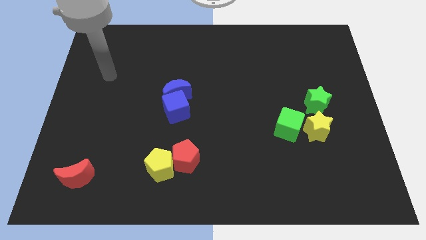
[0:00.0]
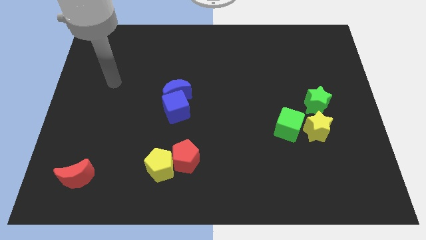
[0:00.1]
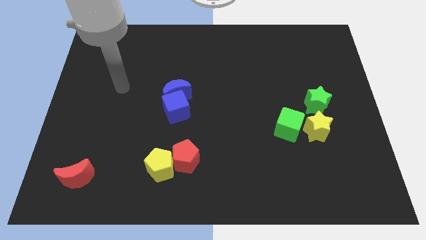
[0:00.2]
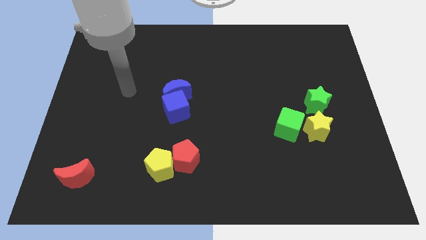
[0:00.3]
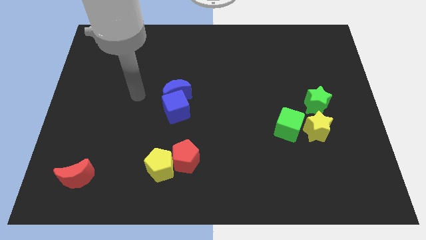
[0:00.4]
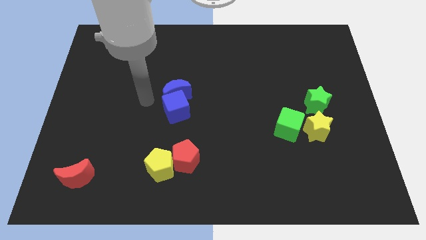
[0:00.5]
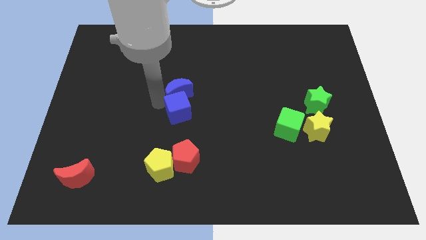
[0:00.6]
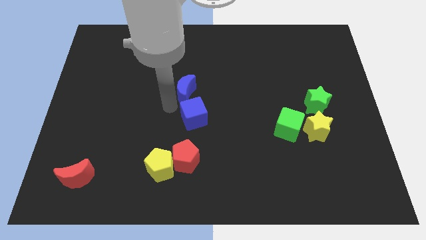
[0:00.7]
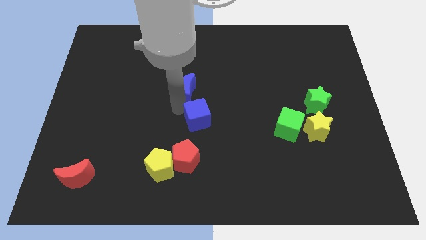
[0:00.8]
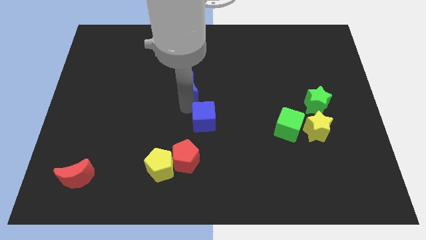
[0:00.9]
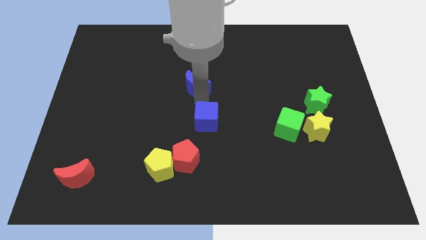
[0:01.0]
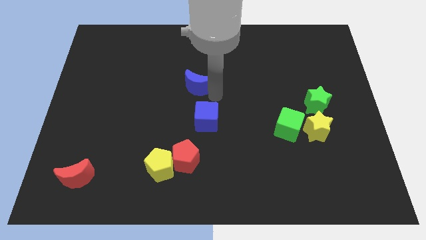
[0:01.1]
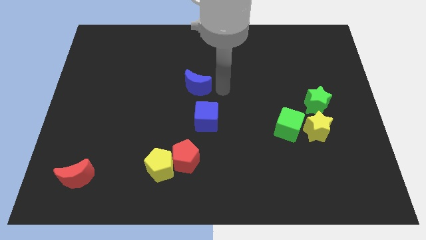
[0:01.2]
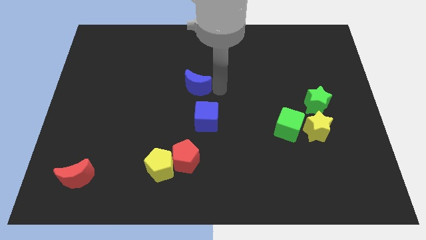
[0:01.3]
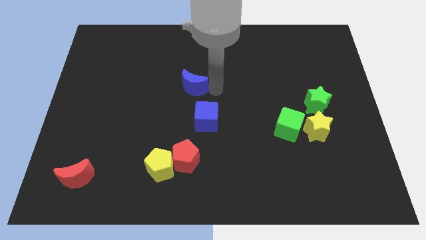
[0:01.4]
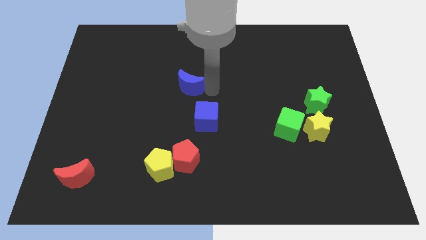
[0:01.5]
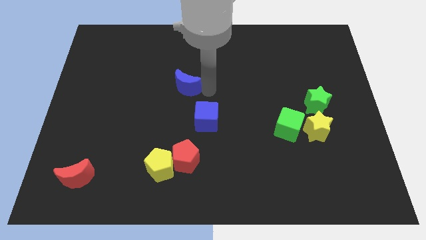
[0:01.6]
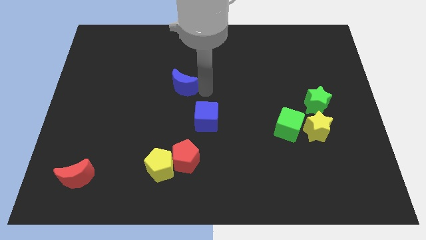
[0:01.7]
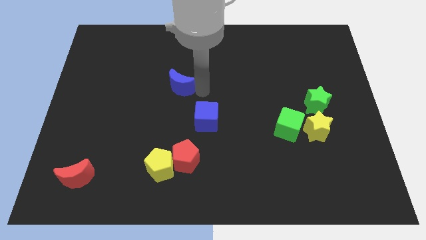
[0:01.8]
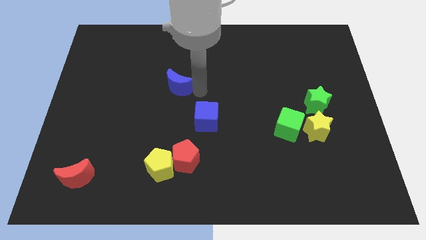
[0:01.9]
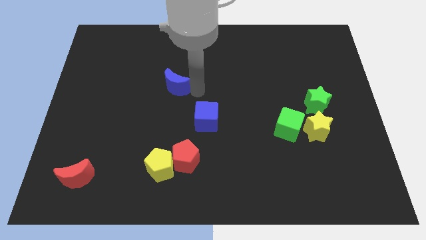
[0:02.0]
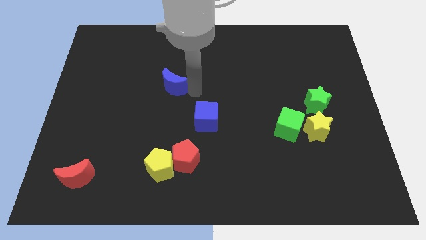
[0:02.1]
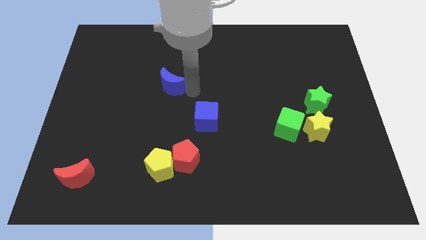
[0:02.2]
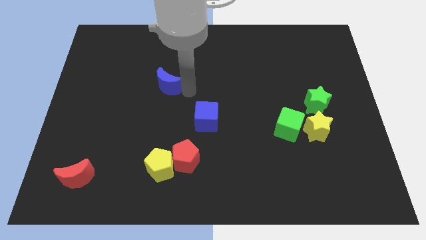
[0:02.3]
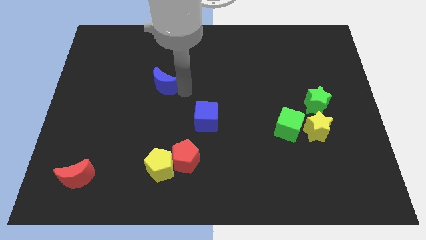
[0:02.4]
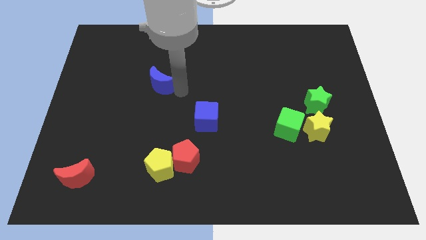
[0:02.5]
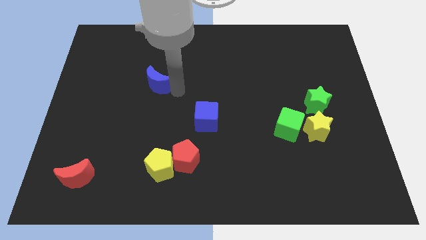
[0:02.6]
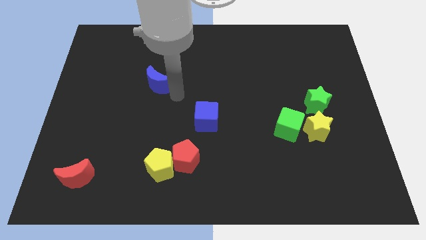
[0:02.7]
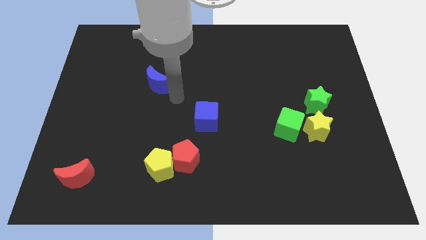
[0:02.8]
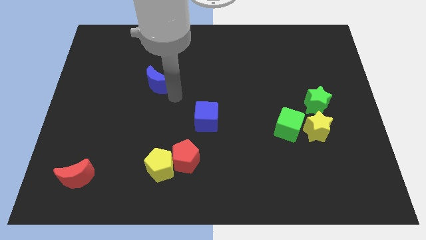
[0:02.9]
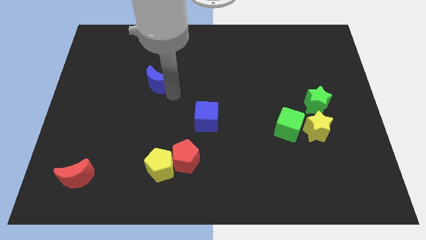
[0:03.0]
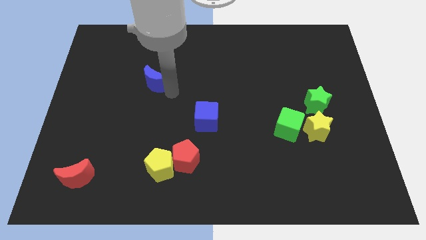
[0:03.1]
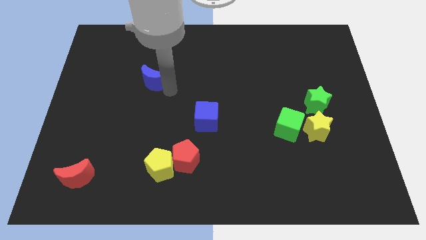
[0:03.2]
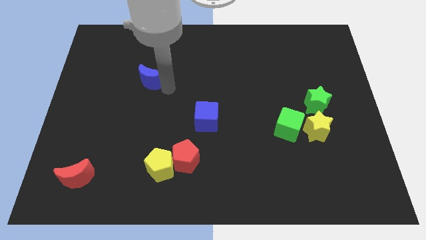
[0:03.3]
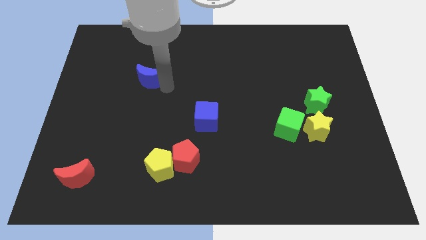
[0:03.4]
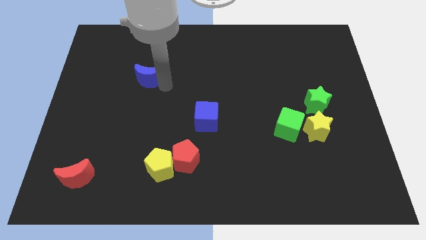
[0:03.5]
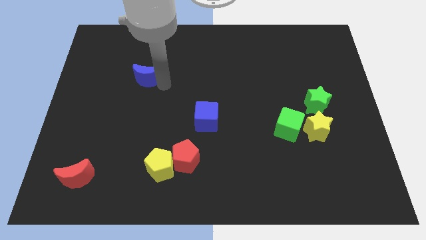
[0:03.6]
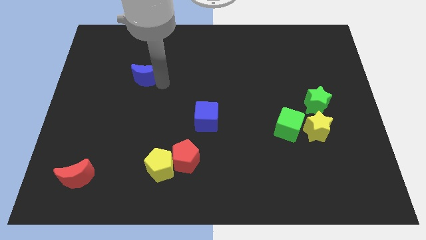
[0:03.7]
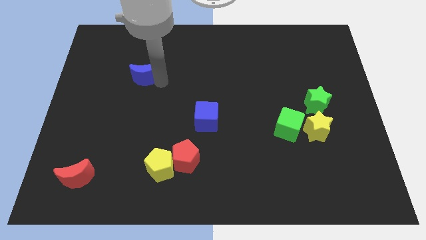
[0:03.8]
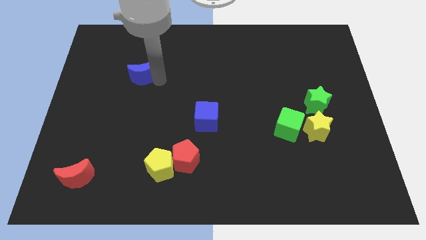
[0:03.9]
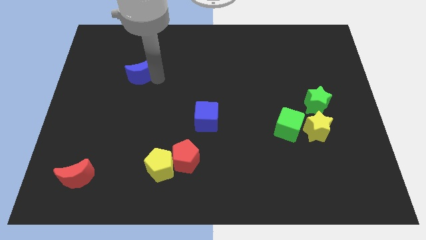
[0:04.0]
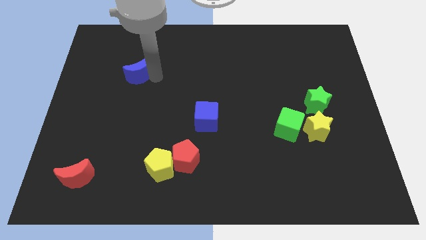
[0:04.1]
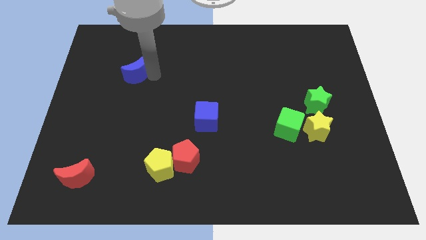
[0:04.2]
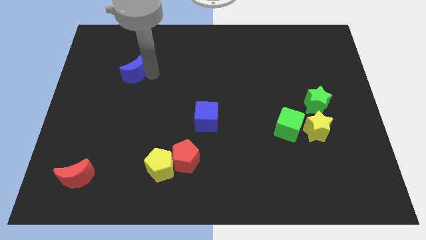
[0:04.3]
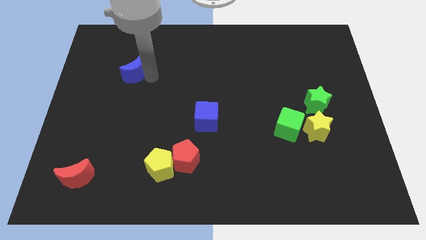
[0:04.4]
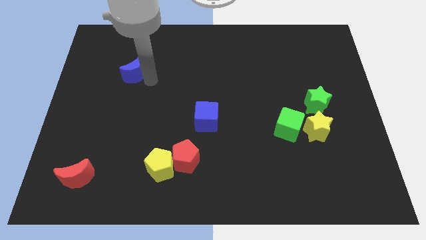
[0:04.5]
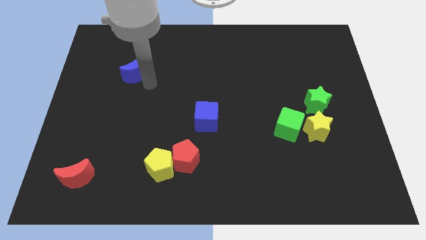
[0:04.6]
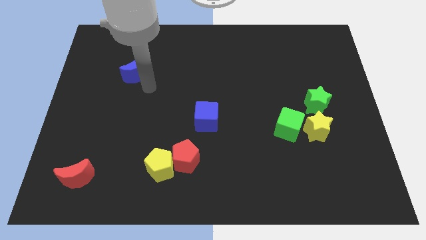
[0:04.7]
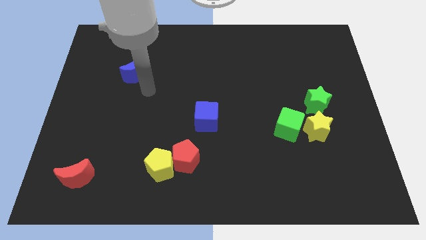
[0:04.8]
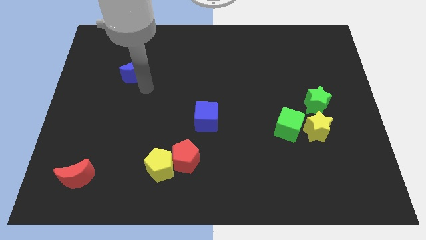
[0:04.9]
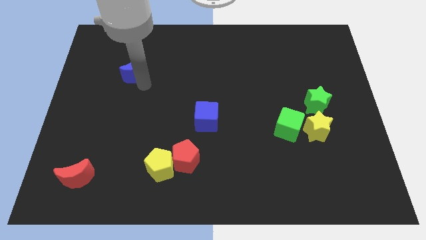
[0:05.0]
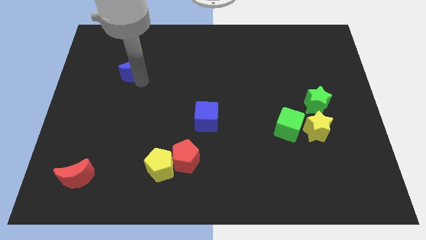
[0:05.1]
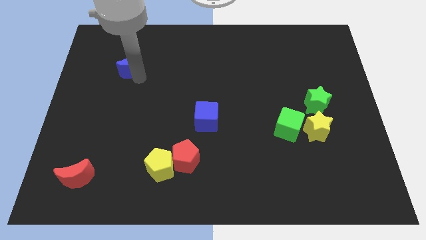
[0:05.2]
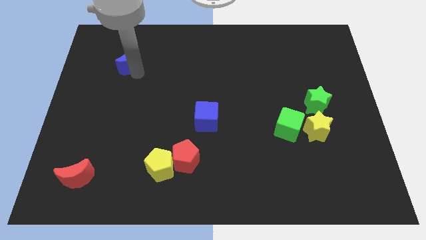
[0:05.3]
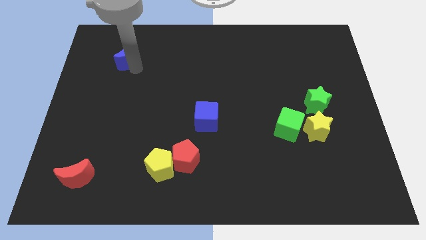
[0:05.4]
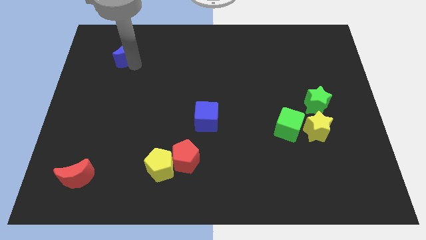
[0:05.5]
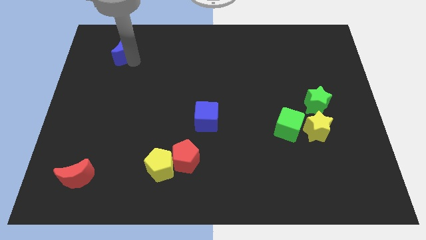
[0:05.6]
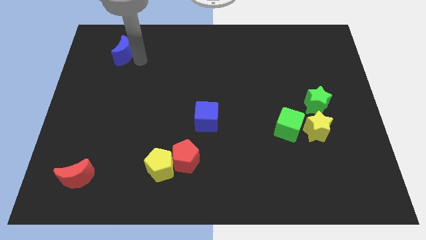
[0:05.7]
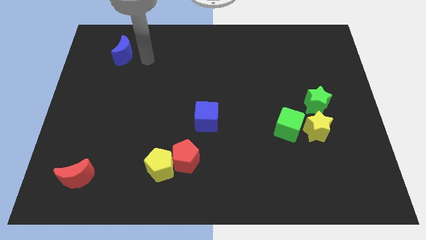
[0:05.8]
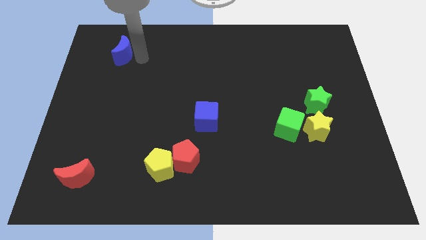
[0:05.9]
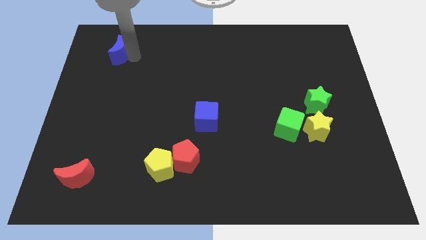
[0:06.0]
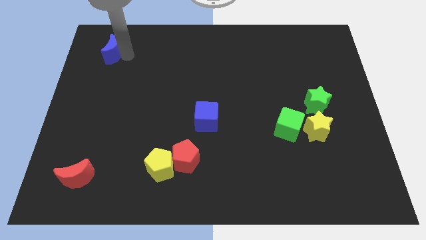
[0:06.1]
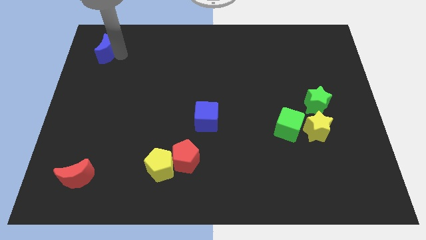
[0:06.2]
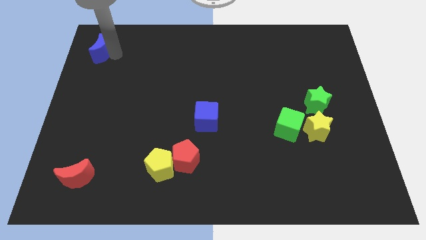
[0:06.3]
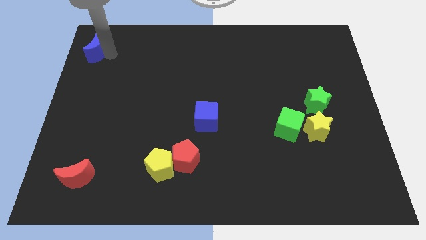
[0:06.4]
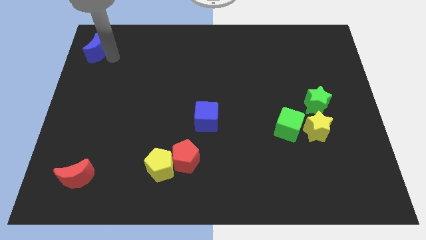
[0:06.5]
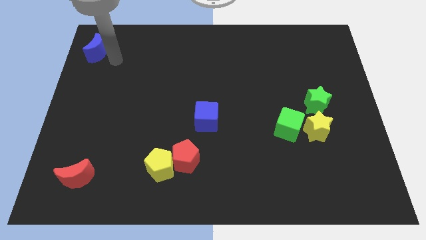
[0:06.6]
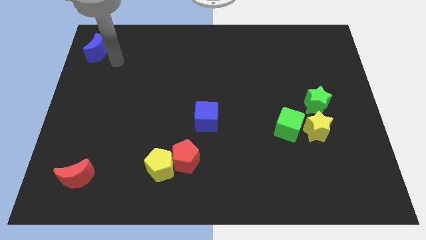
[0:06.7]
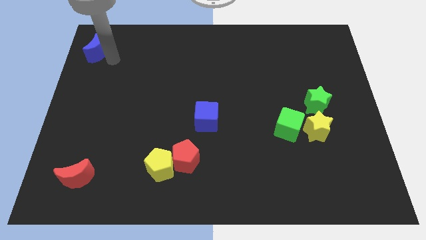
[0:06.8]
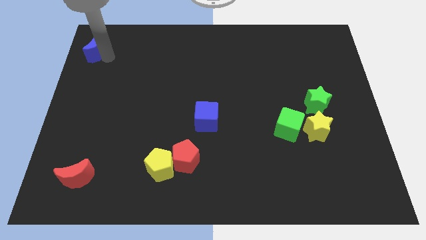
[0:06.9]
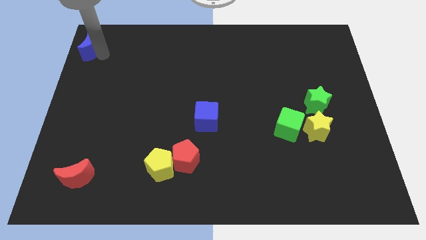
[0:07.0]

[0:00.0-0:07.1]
put the blue moon to the upper left corner
